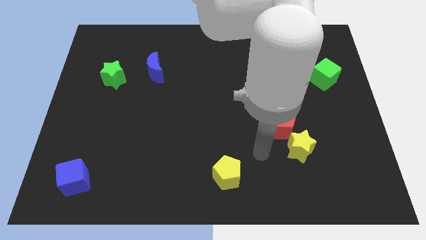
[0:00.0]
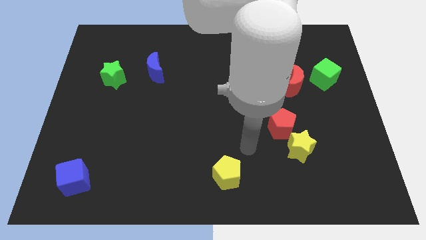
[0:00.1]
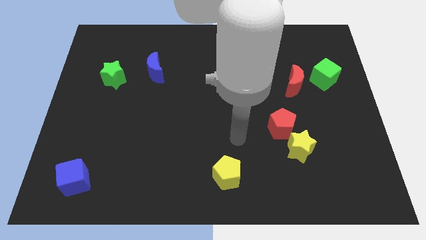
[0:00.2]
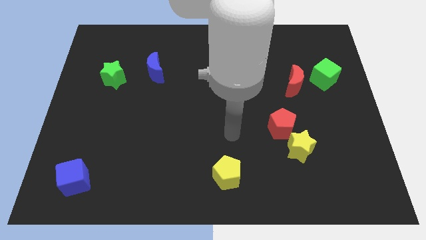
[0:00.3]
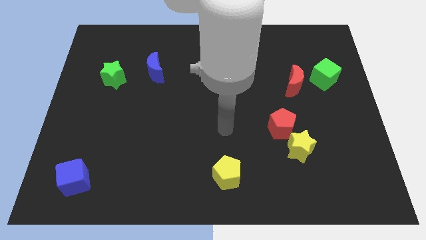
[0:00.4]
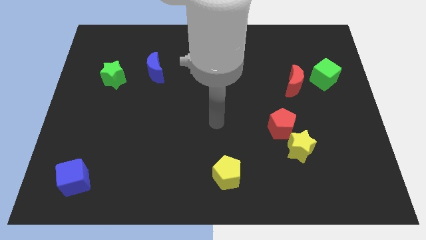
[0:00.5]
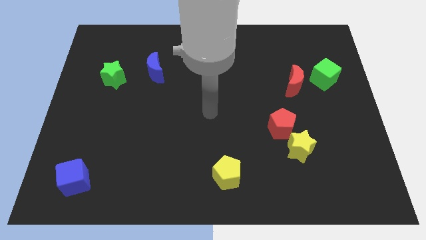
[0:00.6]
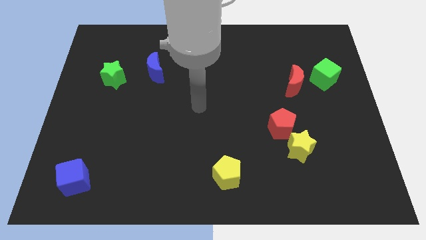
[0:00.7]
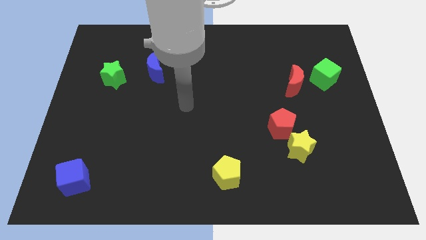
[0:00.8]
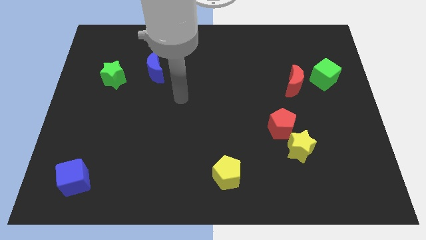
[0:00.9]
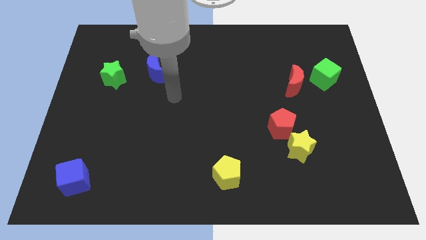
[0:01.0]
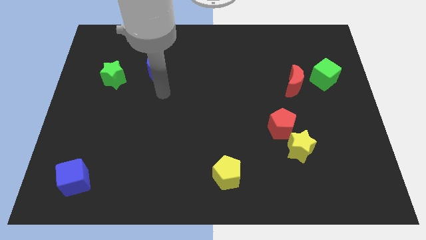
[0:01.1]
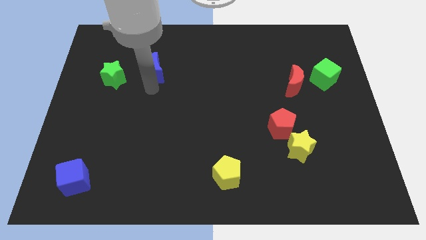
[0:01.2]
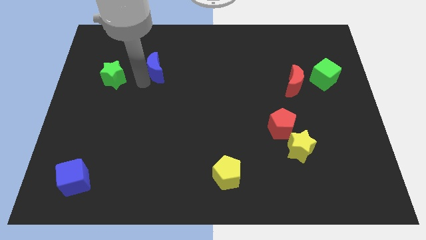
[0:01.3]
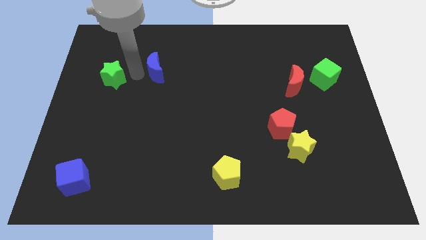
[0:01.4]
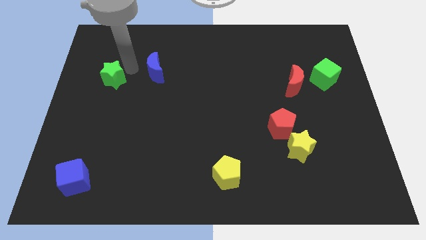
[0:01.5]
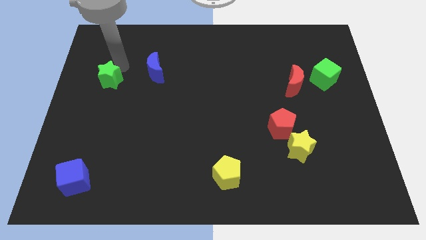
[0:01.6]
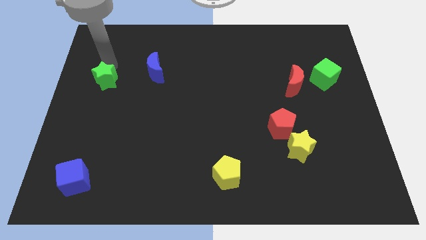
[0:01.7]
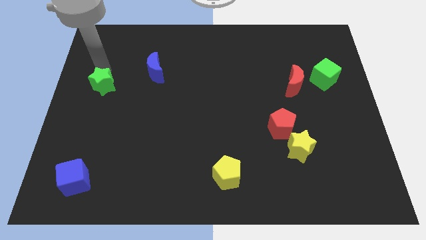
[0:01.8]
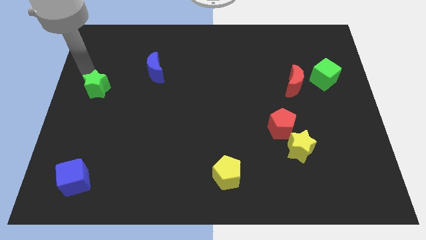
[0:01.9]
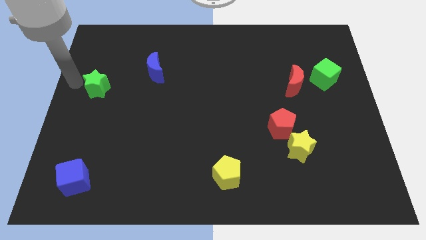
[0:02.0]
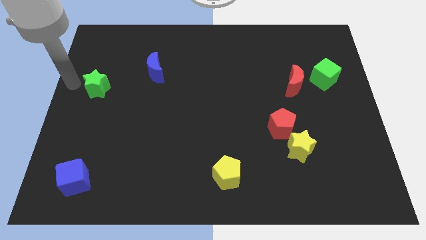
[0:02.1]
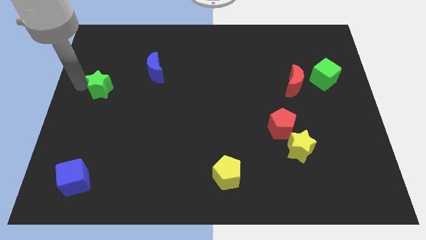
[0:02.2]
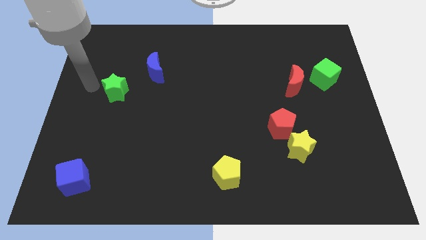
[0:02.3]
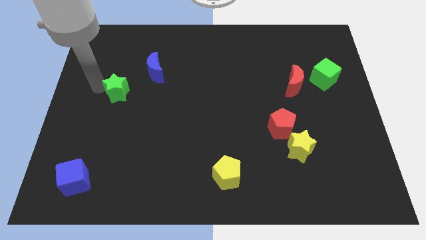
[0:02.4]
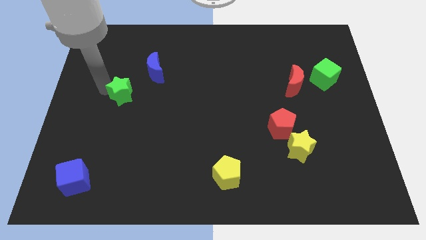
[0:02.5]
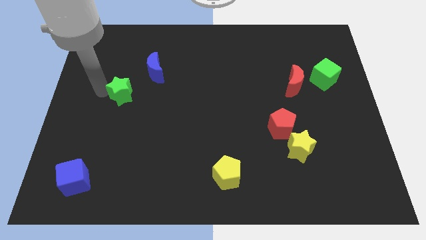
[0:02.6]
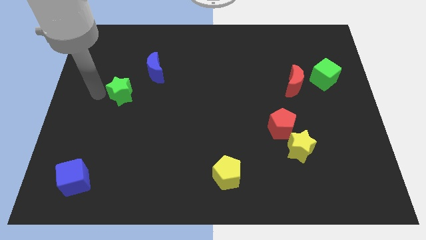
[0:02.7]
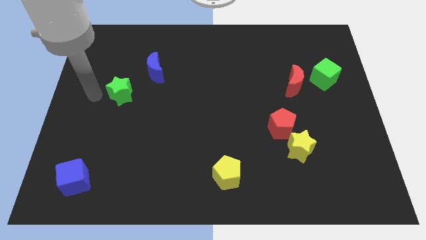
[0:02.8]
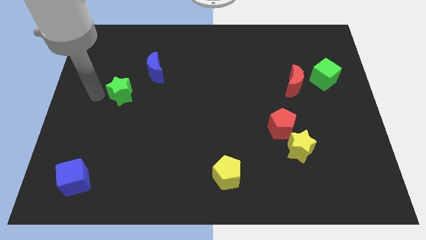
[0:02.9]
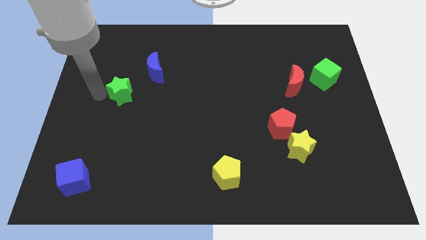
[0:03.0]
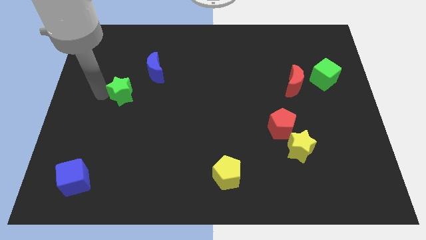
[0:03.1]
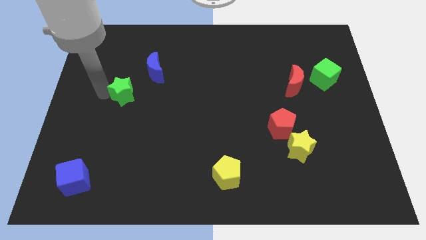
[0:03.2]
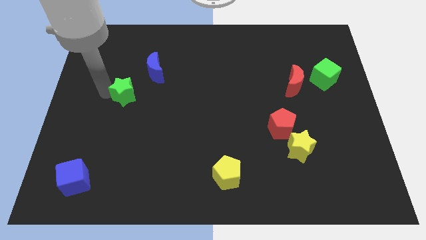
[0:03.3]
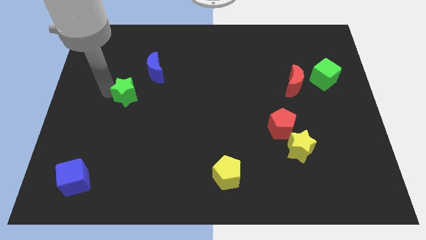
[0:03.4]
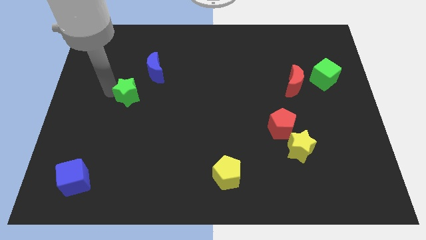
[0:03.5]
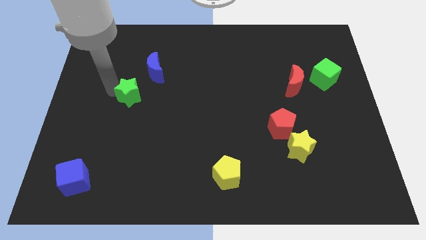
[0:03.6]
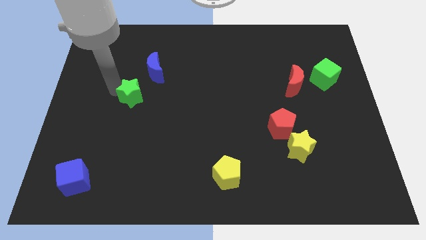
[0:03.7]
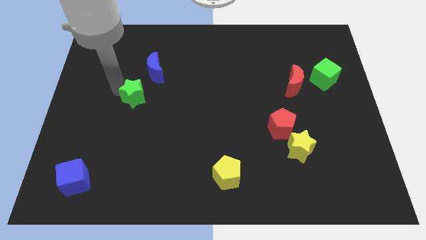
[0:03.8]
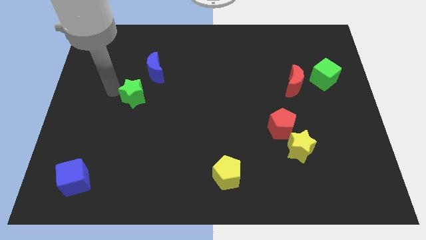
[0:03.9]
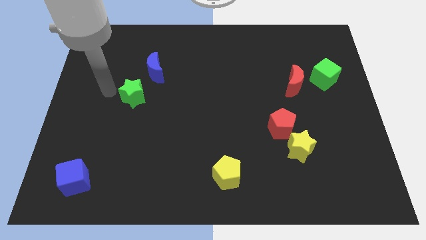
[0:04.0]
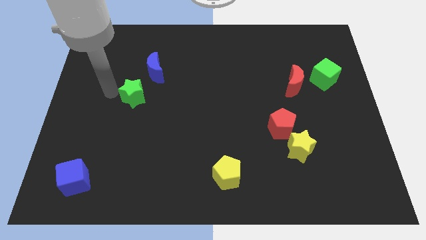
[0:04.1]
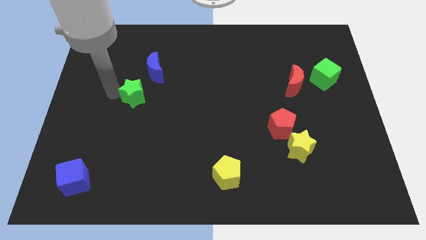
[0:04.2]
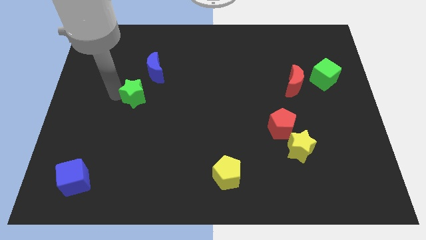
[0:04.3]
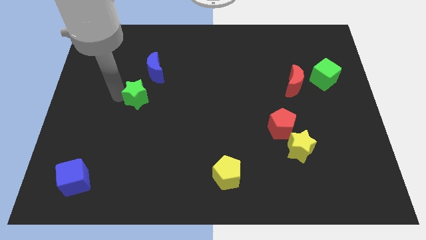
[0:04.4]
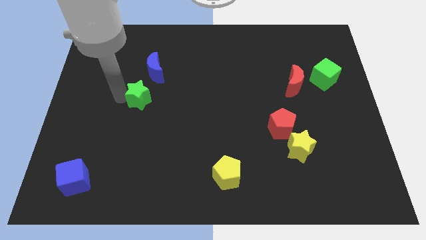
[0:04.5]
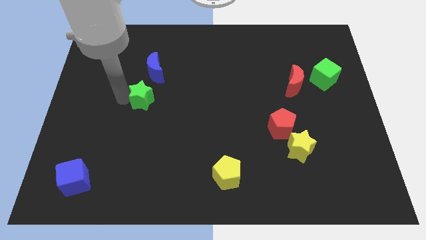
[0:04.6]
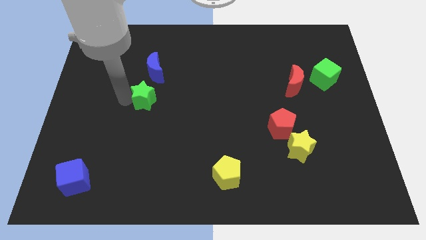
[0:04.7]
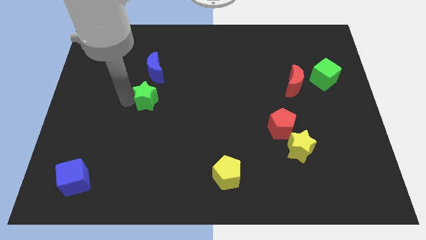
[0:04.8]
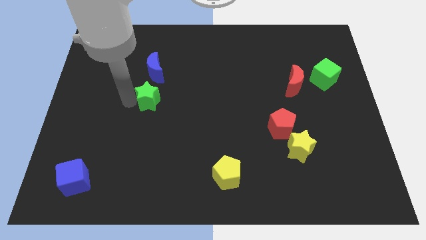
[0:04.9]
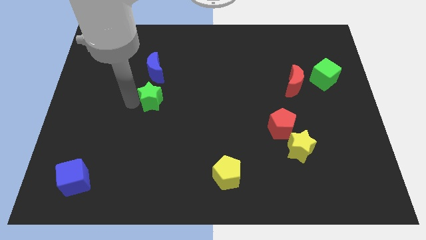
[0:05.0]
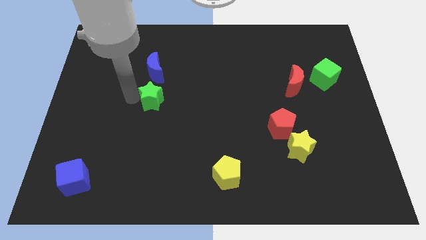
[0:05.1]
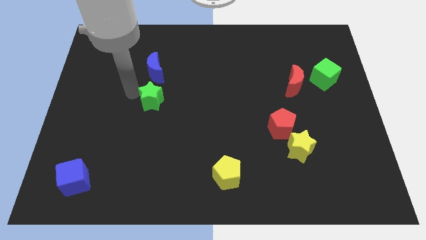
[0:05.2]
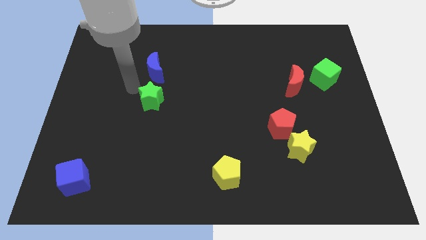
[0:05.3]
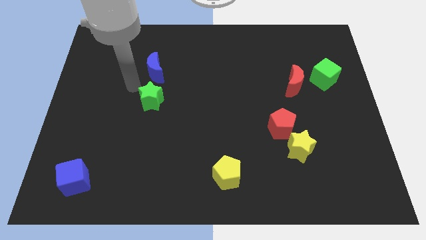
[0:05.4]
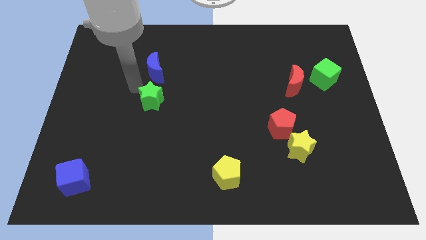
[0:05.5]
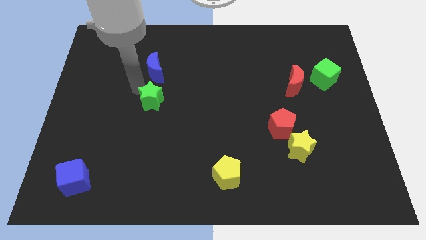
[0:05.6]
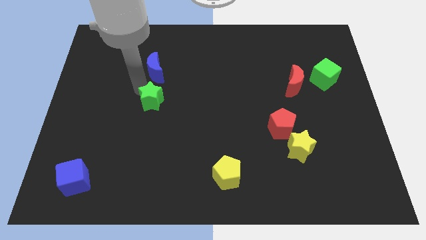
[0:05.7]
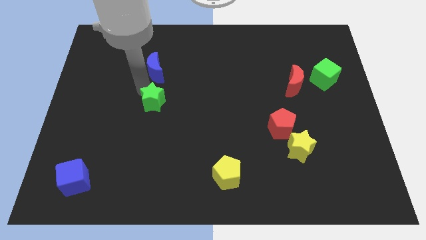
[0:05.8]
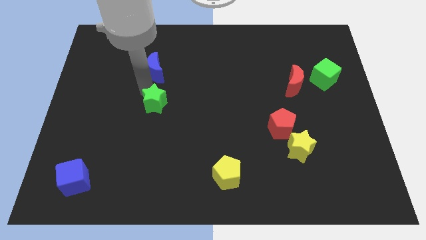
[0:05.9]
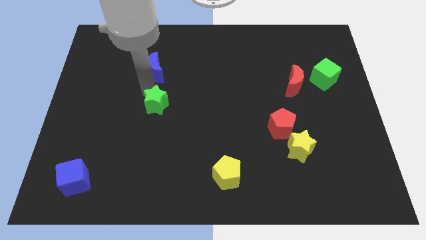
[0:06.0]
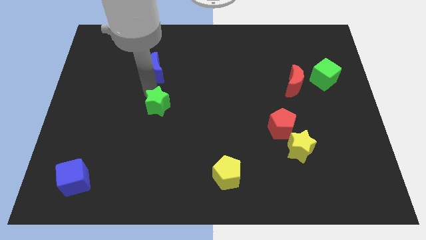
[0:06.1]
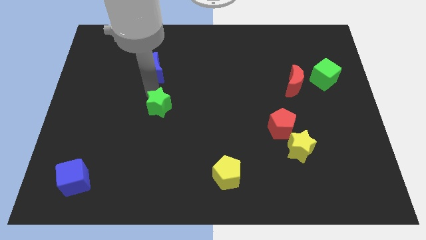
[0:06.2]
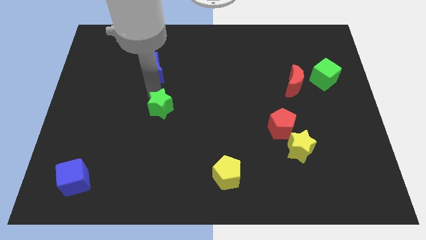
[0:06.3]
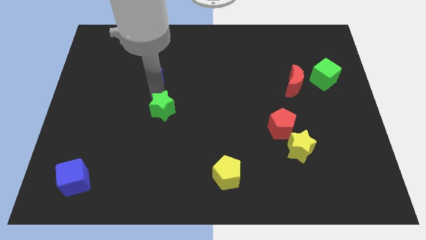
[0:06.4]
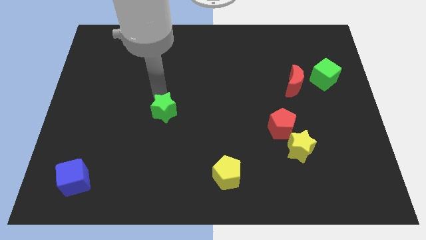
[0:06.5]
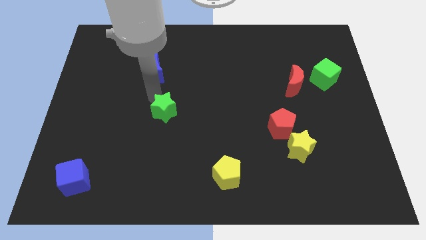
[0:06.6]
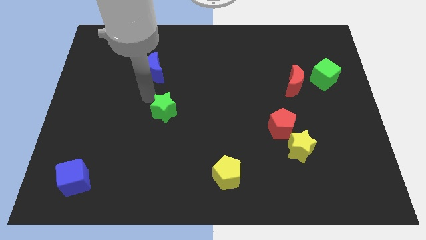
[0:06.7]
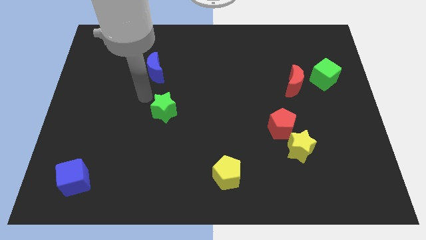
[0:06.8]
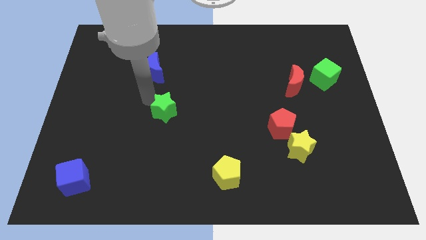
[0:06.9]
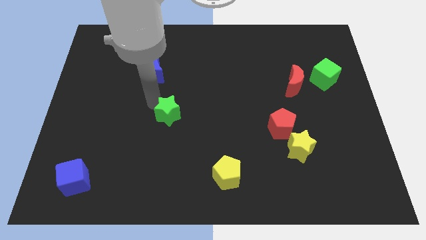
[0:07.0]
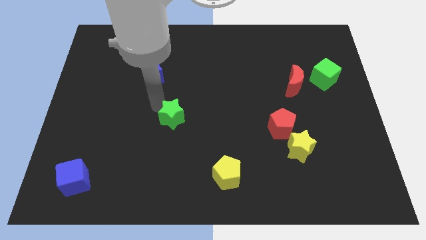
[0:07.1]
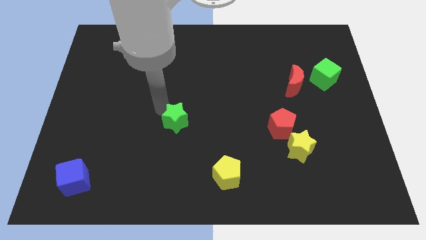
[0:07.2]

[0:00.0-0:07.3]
slide the green star downwards and right

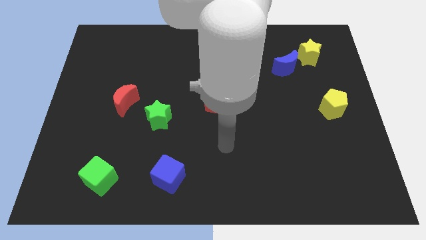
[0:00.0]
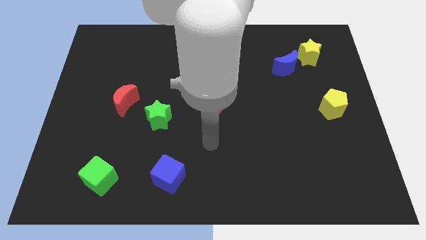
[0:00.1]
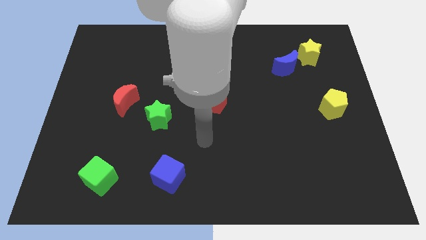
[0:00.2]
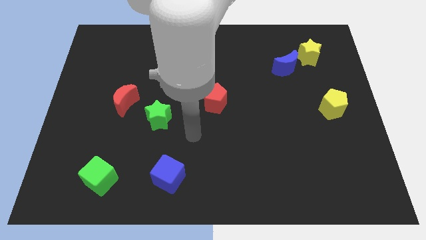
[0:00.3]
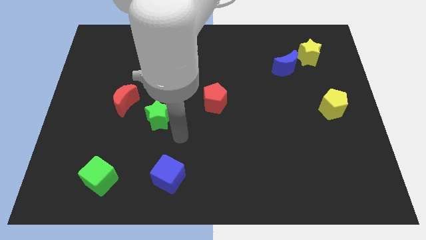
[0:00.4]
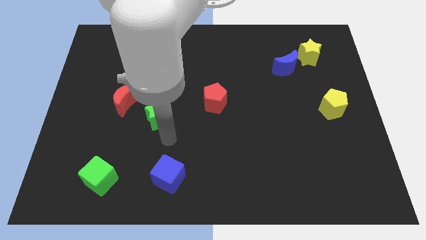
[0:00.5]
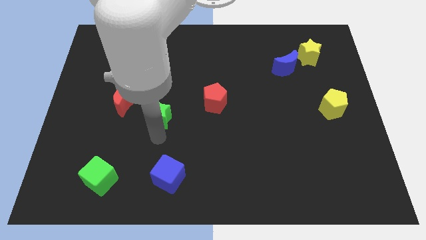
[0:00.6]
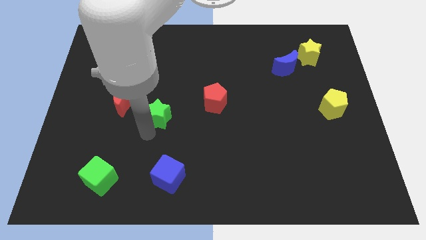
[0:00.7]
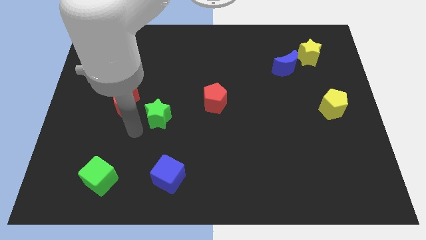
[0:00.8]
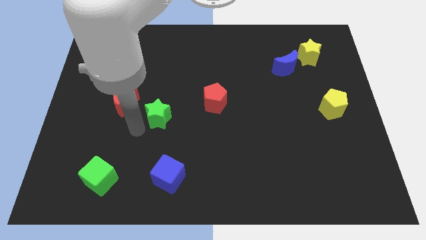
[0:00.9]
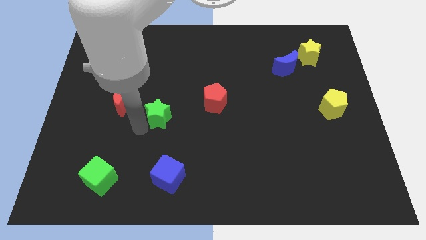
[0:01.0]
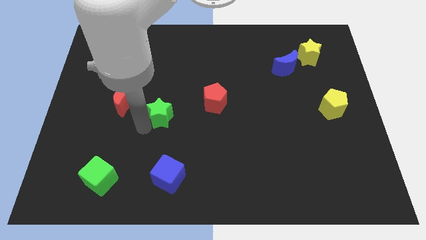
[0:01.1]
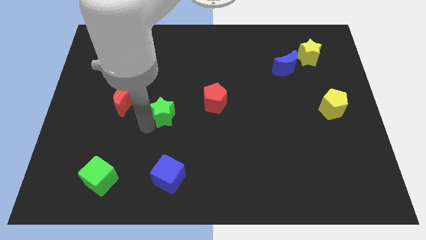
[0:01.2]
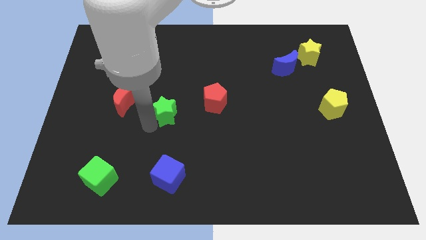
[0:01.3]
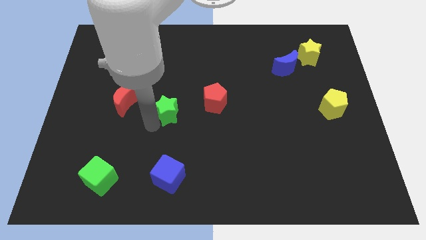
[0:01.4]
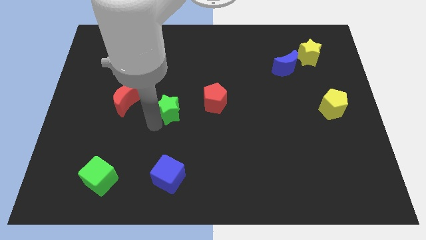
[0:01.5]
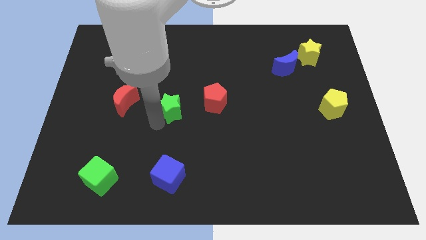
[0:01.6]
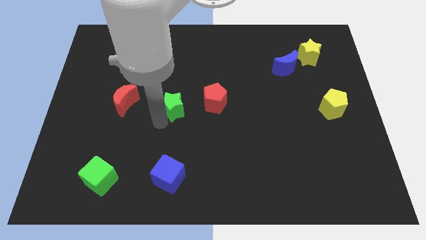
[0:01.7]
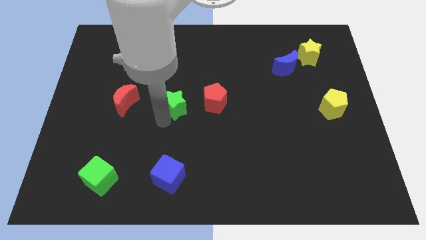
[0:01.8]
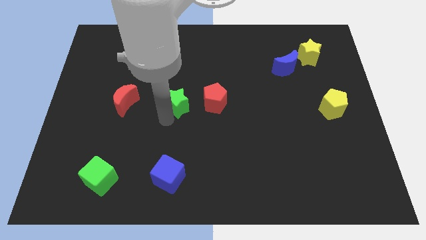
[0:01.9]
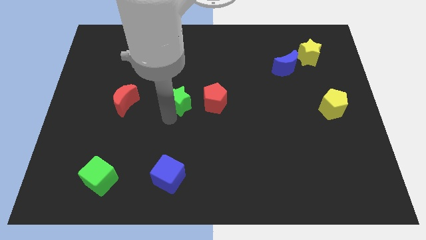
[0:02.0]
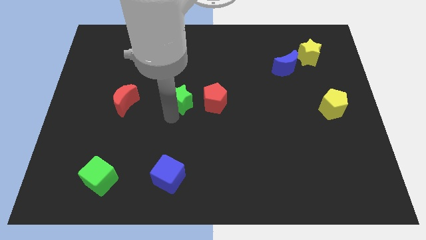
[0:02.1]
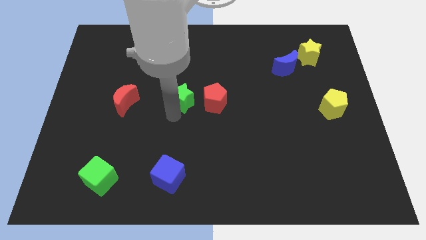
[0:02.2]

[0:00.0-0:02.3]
move the green star a bit upwards and then right
